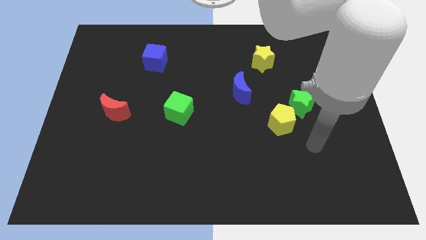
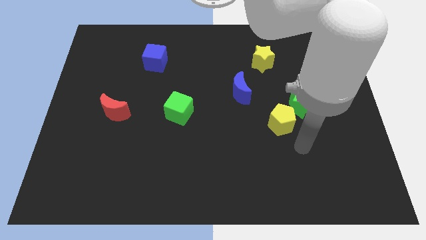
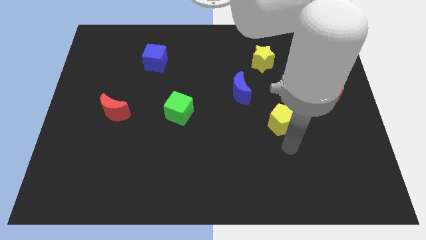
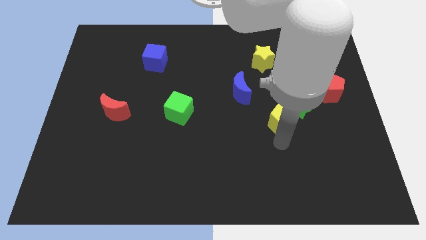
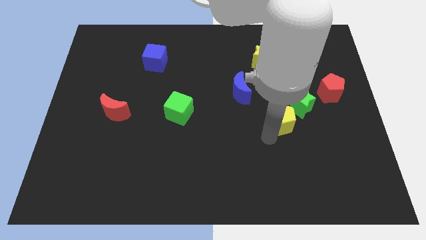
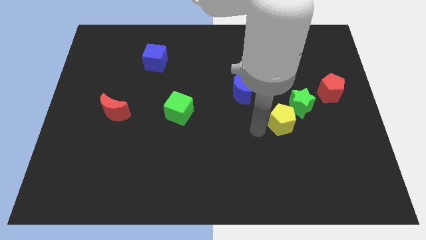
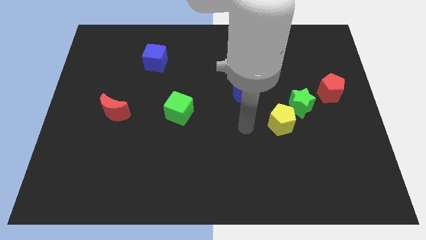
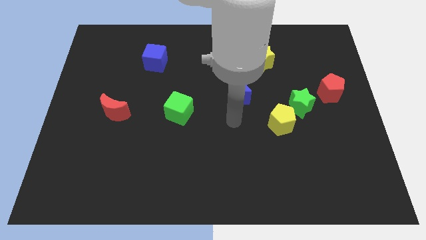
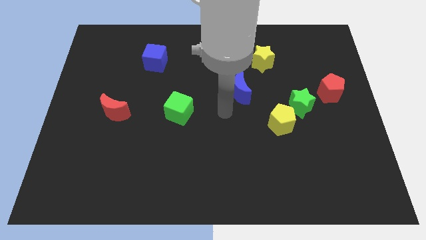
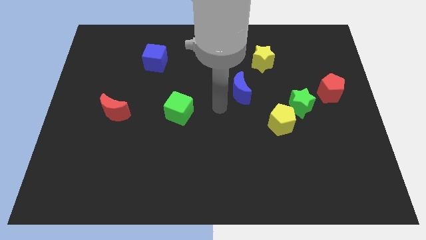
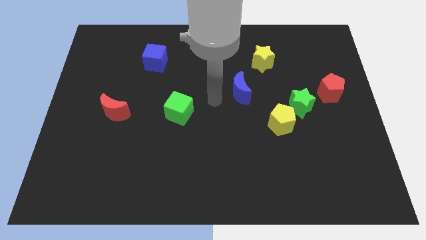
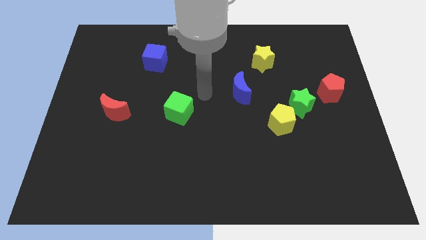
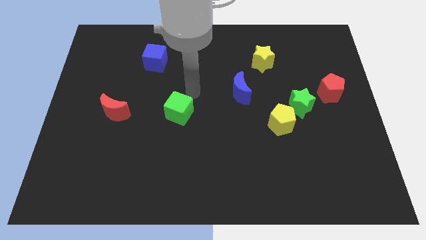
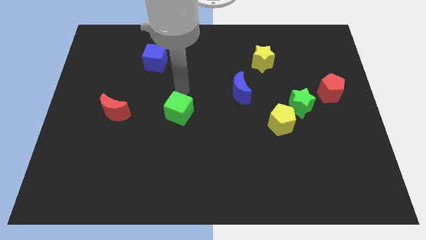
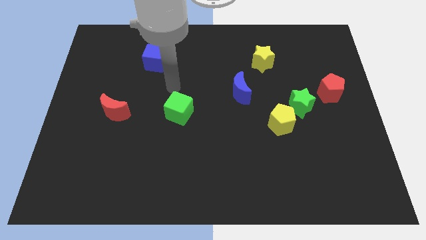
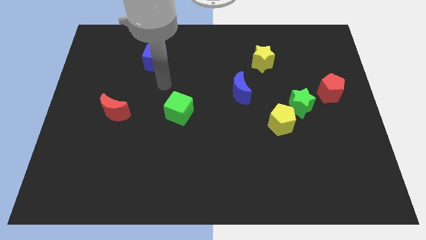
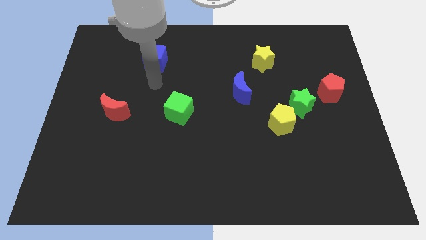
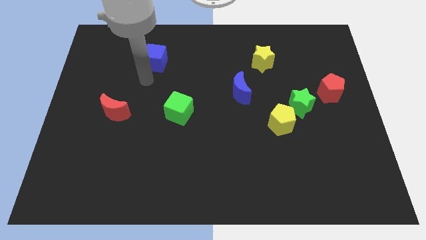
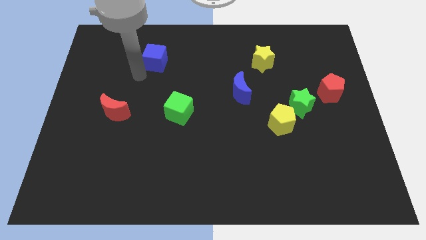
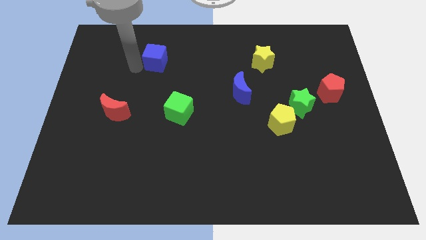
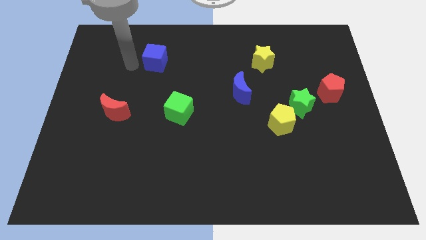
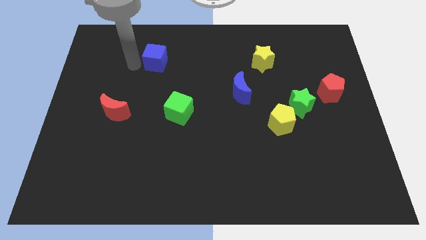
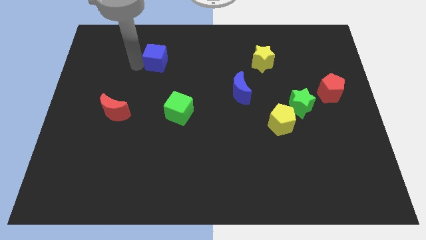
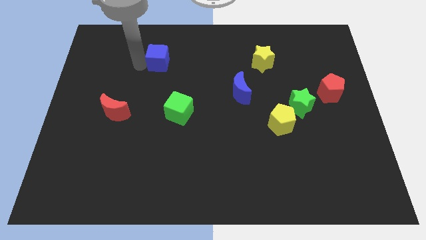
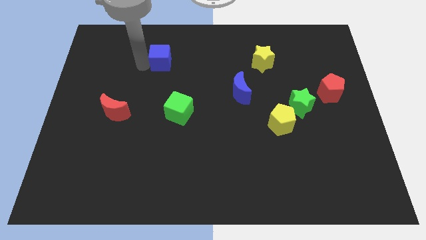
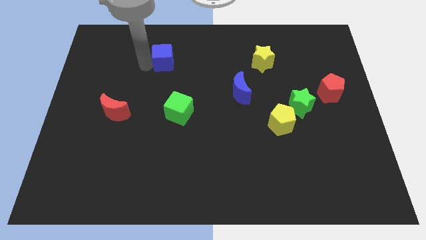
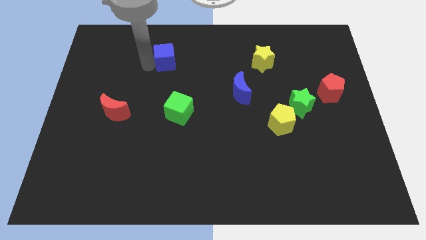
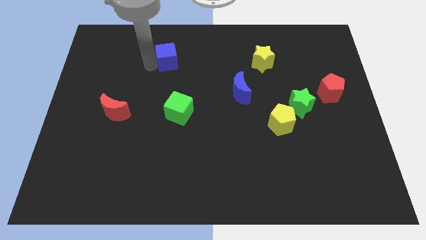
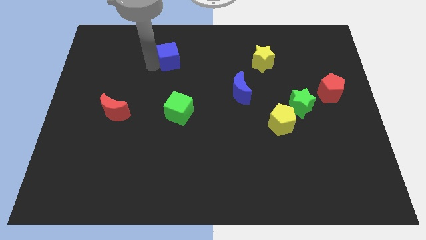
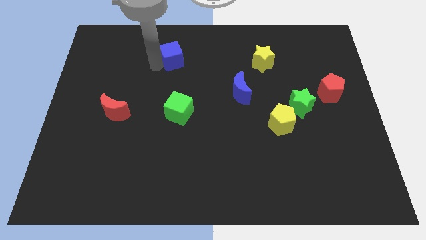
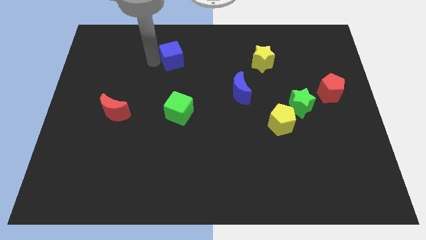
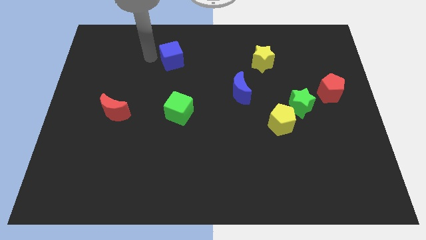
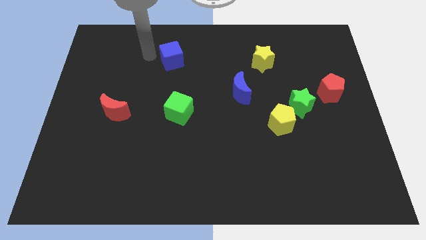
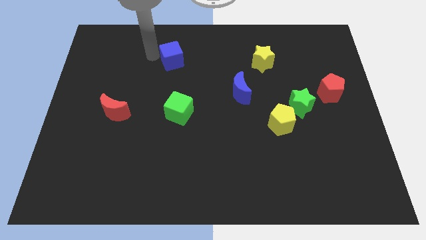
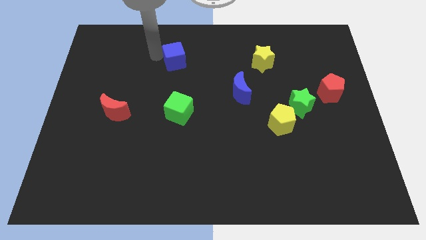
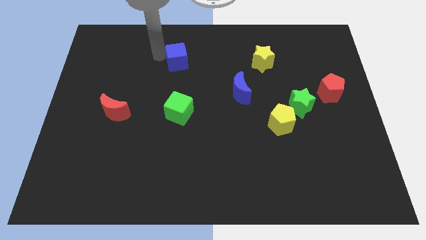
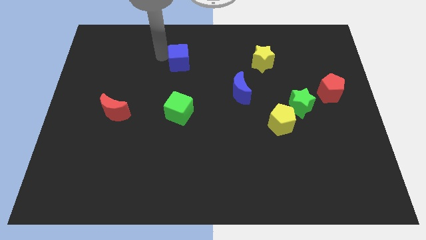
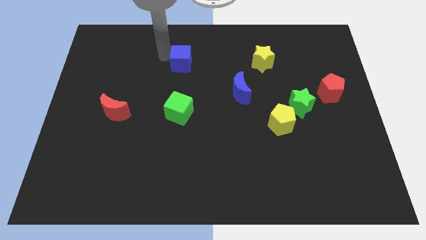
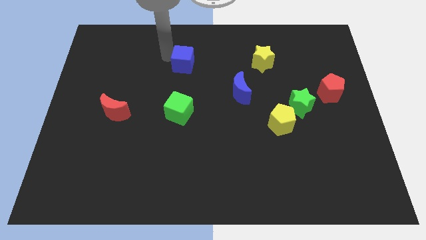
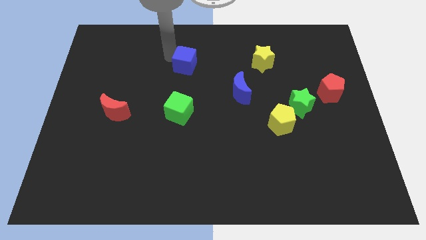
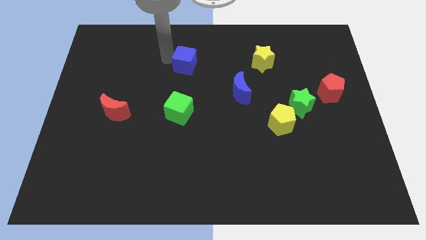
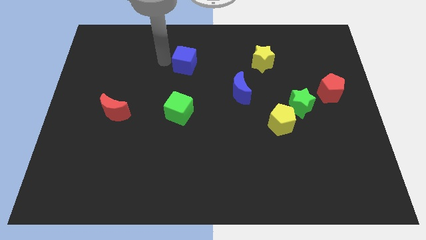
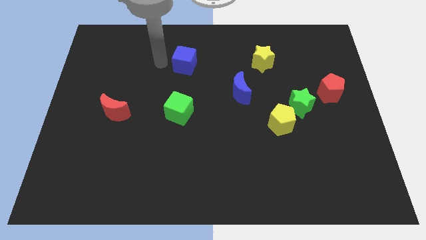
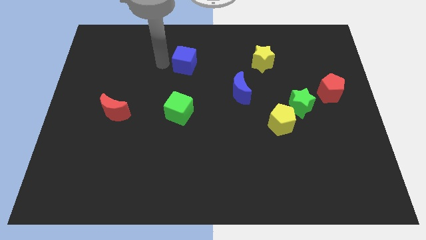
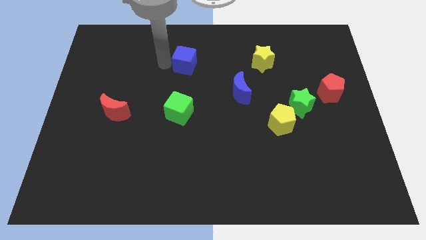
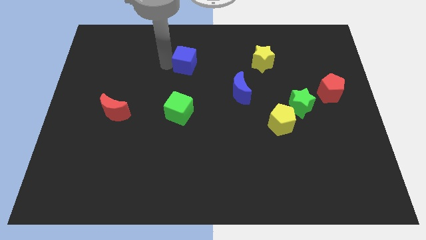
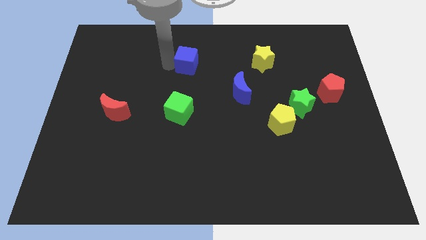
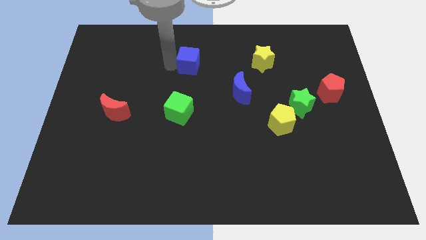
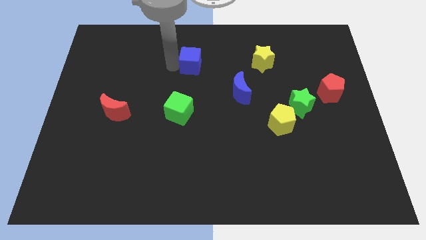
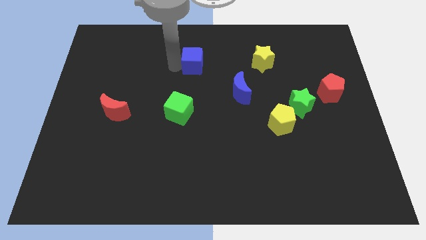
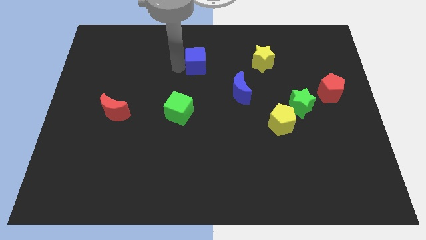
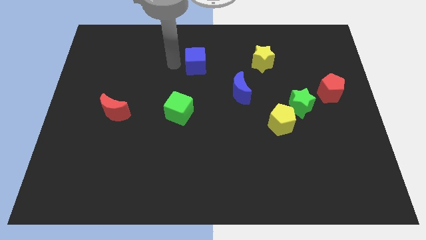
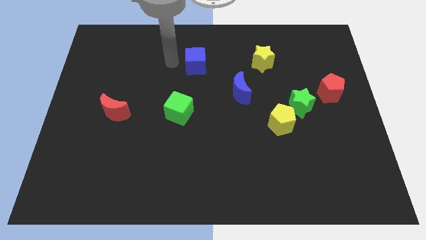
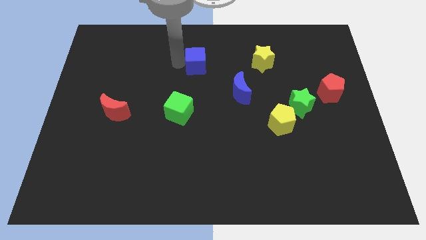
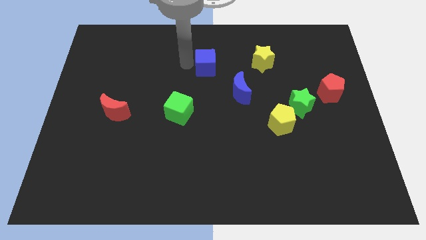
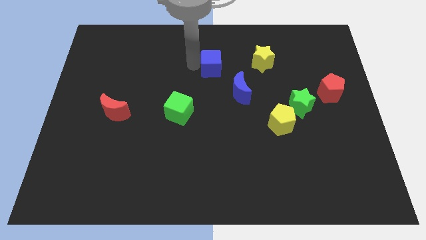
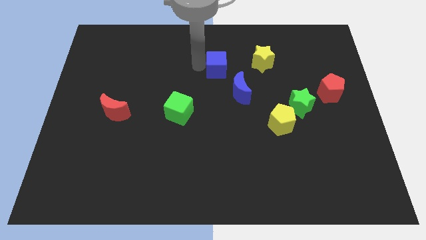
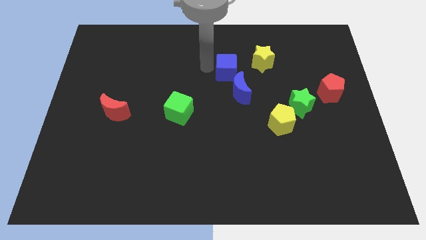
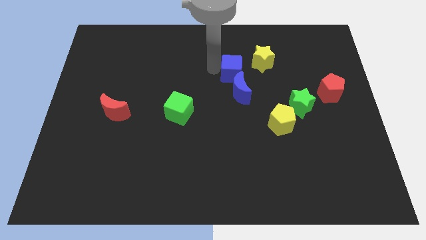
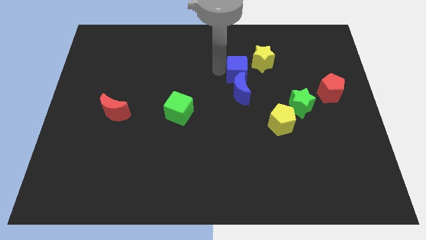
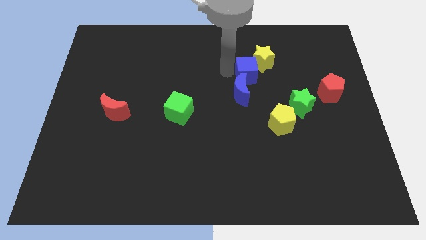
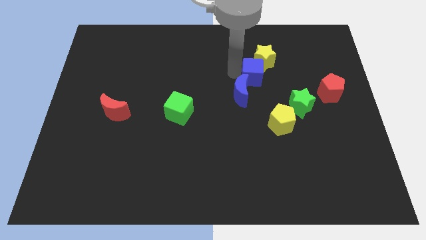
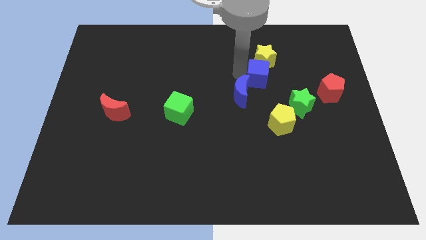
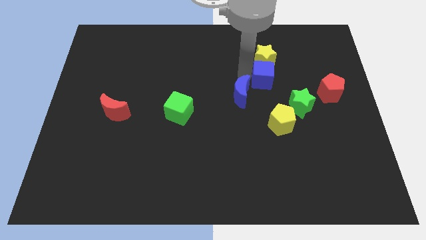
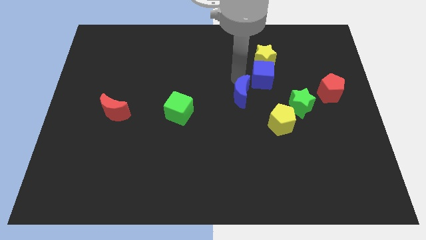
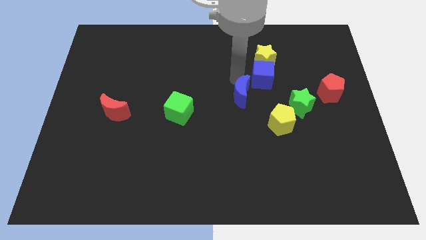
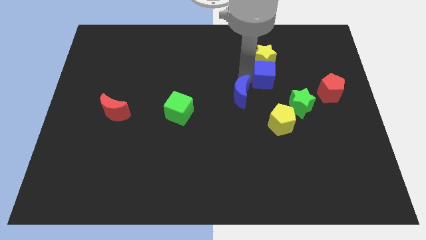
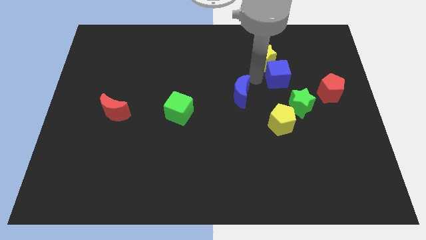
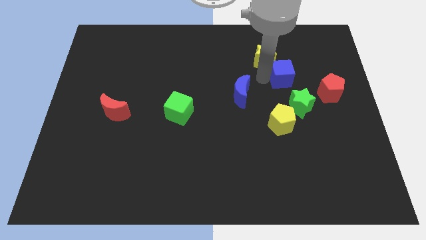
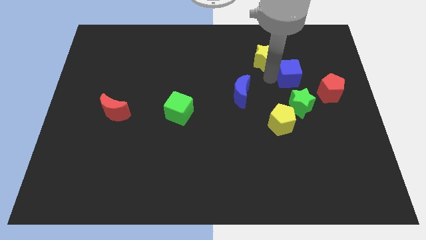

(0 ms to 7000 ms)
push the blue cube to the top left side of the red pentagon

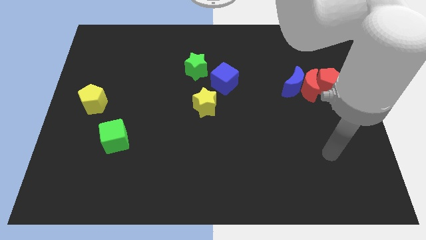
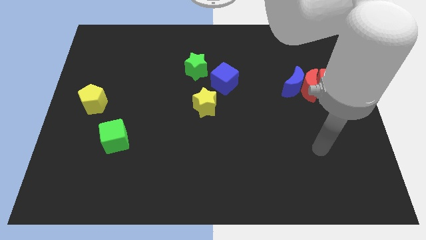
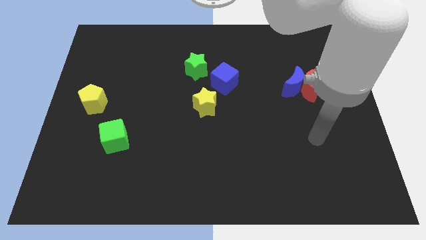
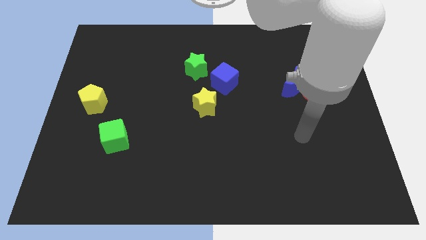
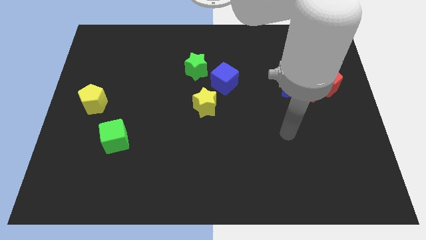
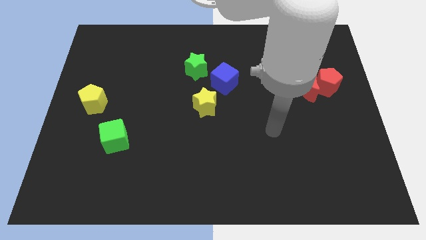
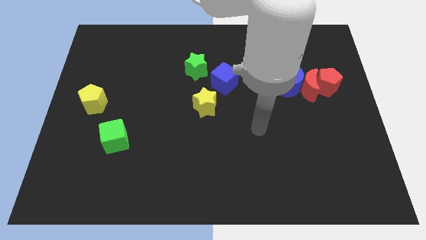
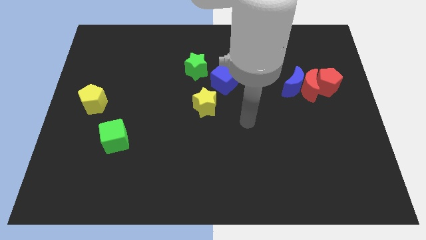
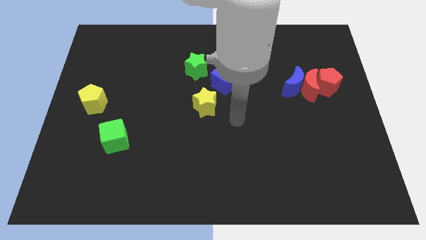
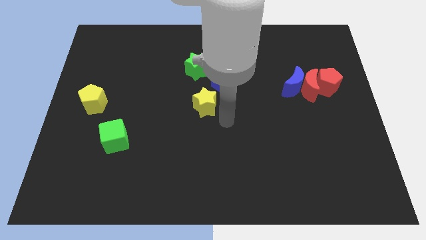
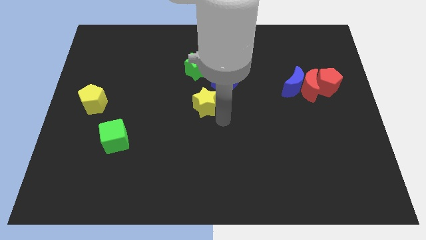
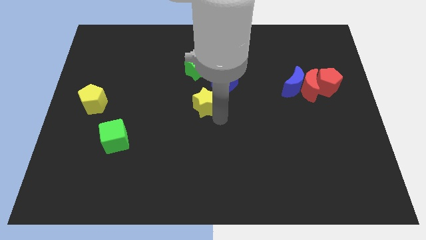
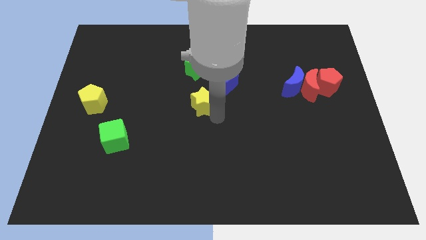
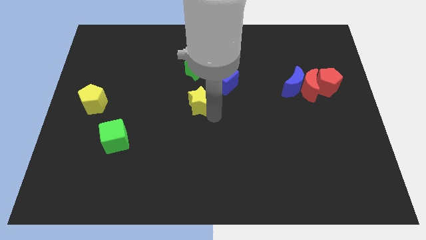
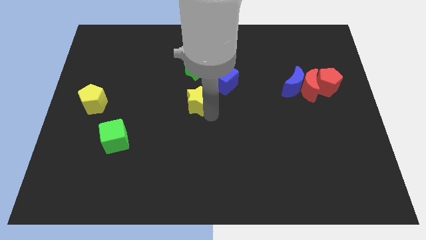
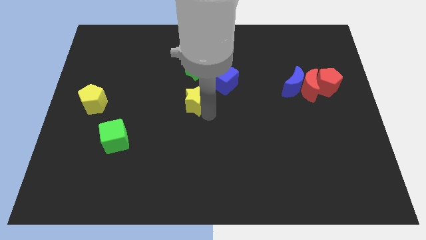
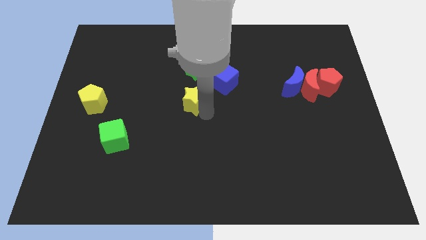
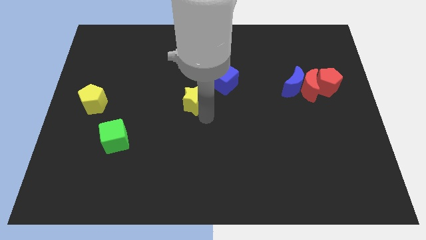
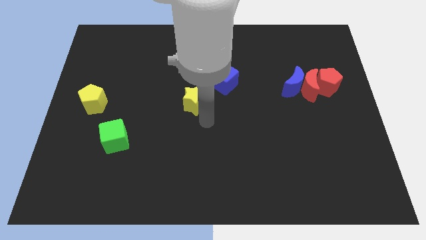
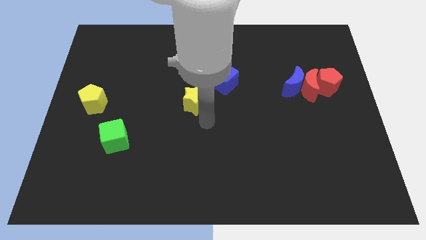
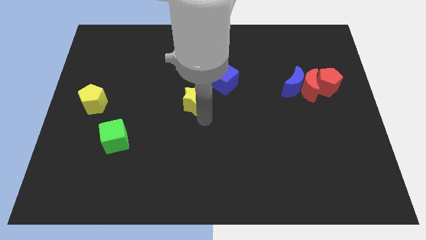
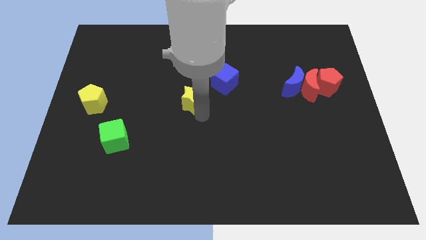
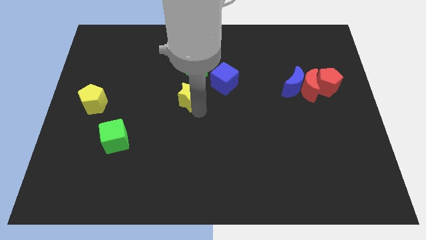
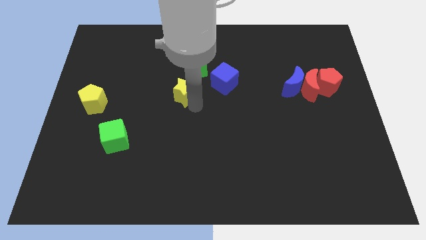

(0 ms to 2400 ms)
push the yellow star diagonally down and to the left of the green star
